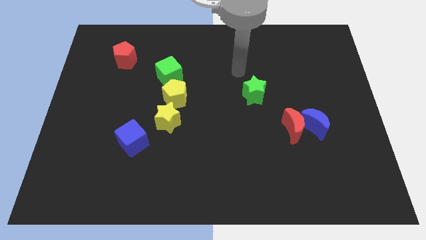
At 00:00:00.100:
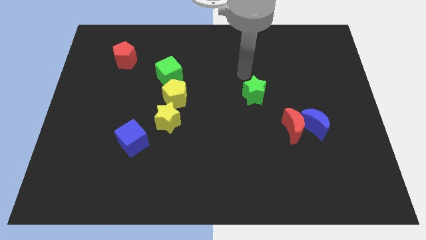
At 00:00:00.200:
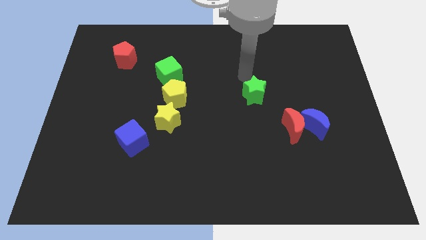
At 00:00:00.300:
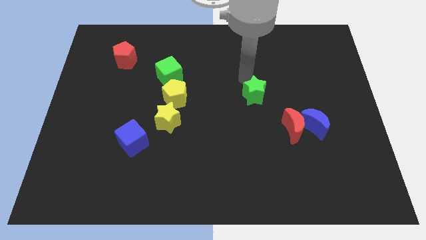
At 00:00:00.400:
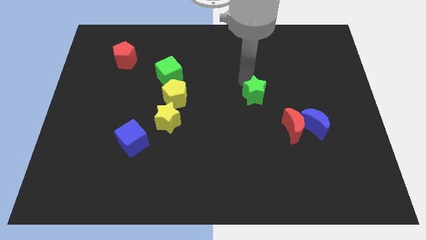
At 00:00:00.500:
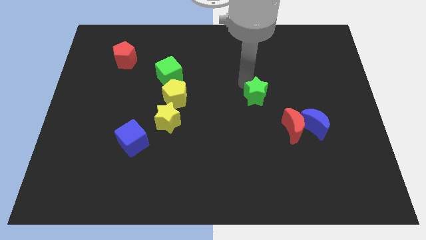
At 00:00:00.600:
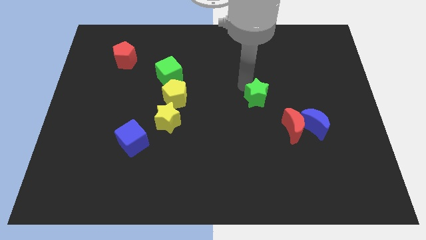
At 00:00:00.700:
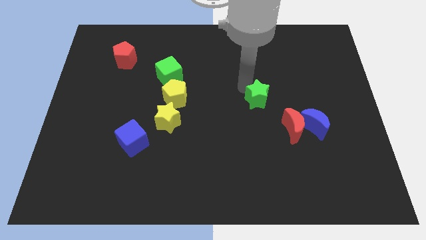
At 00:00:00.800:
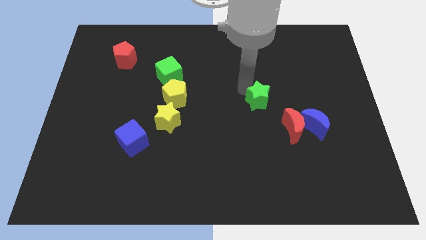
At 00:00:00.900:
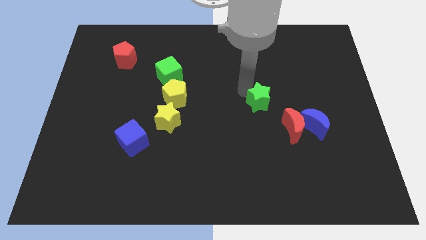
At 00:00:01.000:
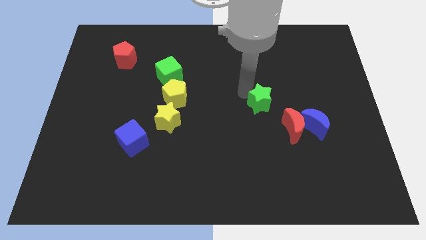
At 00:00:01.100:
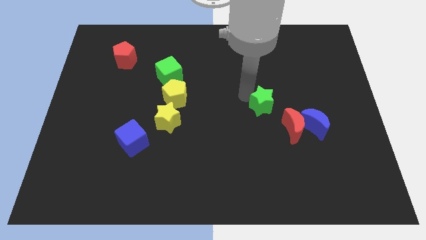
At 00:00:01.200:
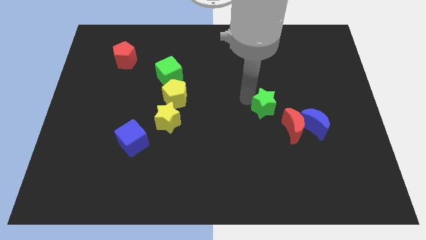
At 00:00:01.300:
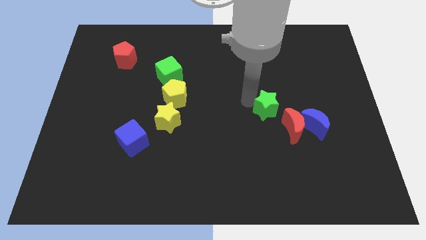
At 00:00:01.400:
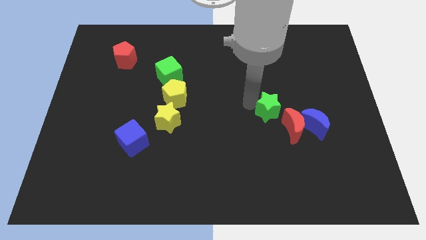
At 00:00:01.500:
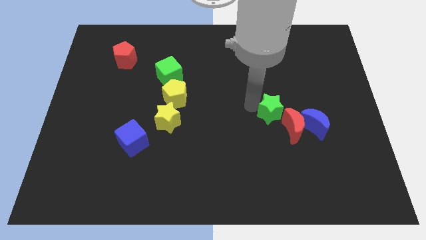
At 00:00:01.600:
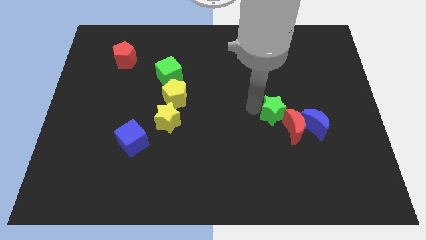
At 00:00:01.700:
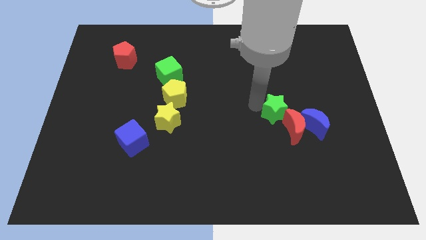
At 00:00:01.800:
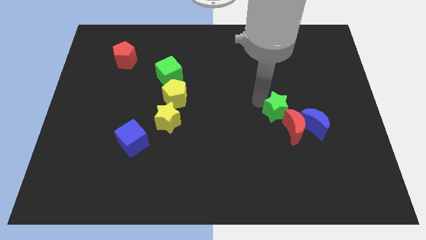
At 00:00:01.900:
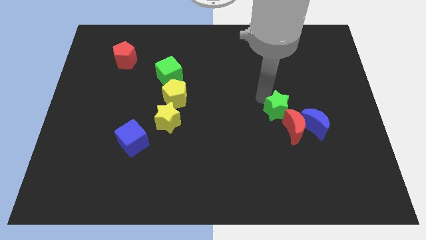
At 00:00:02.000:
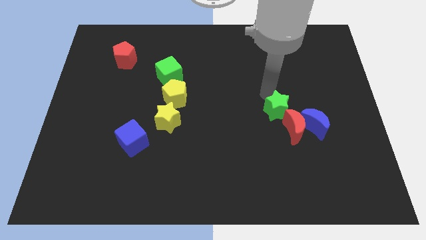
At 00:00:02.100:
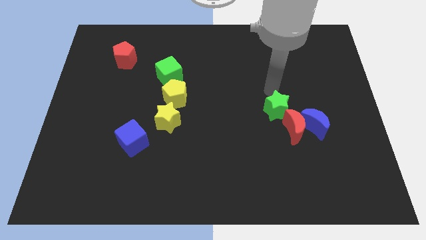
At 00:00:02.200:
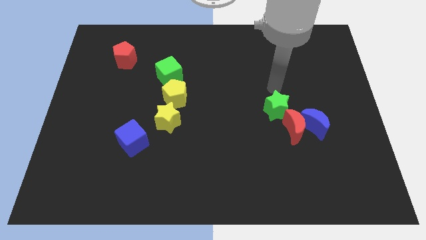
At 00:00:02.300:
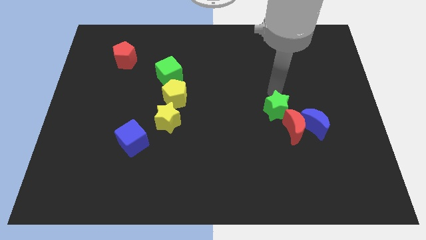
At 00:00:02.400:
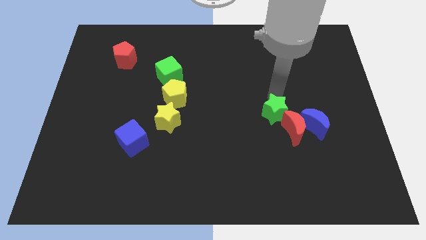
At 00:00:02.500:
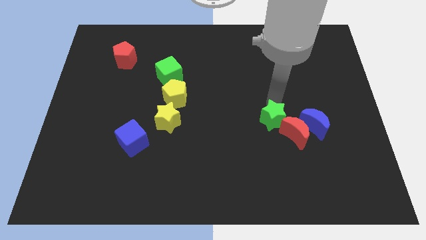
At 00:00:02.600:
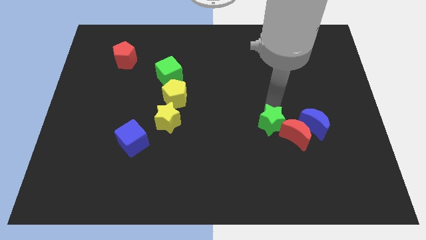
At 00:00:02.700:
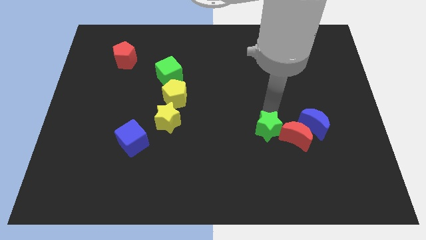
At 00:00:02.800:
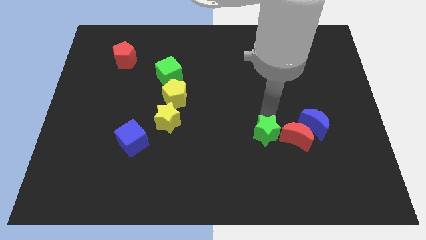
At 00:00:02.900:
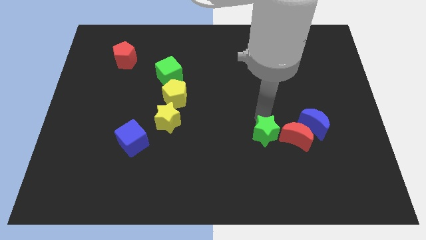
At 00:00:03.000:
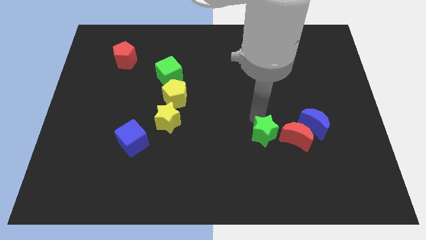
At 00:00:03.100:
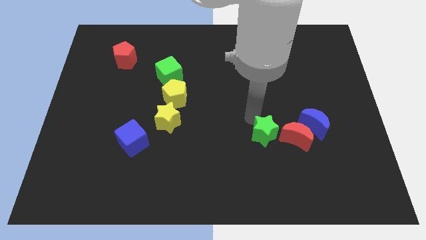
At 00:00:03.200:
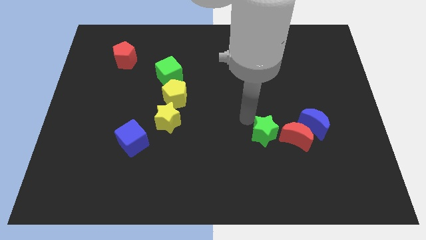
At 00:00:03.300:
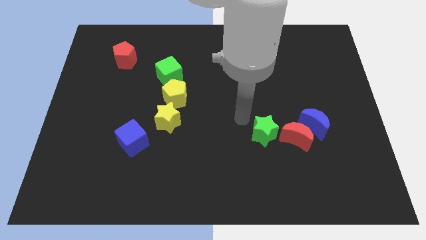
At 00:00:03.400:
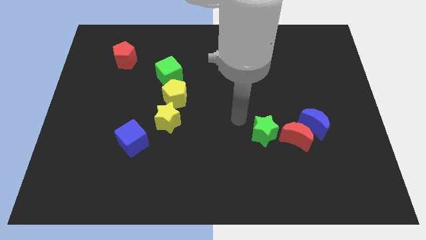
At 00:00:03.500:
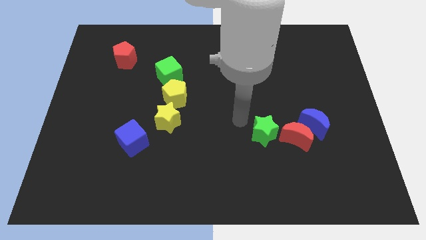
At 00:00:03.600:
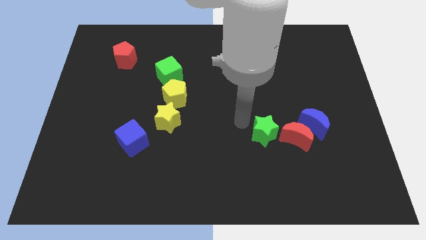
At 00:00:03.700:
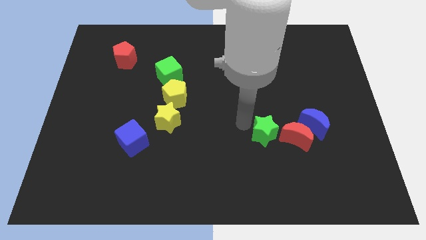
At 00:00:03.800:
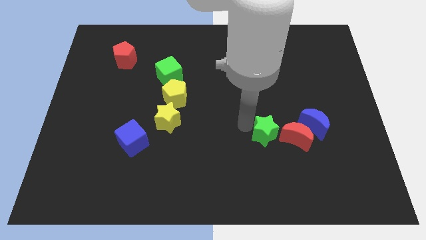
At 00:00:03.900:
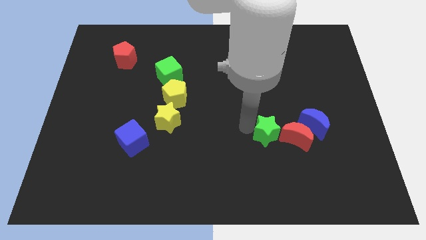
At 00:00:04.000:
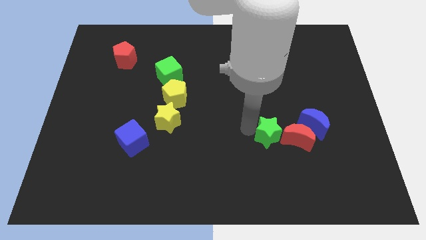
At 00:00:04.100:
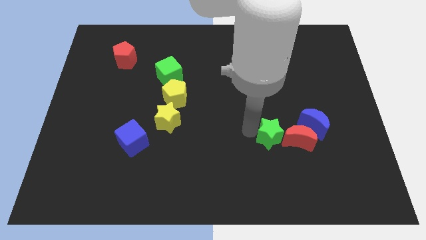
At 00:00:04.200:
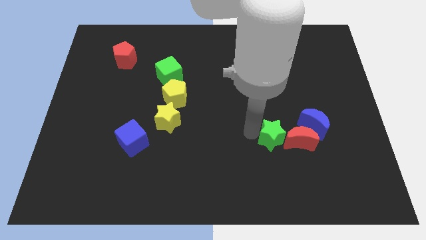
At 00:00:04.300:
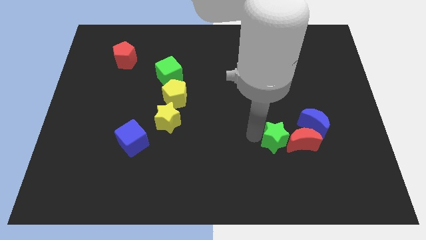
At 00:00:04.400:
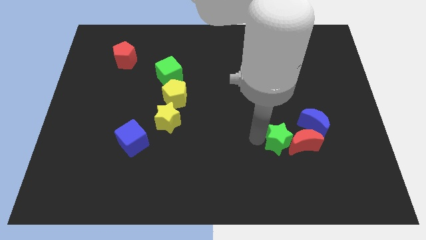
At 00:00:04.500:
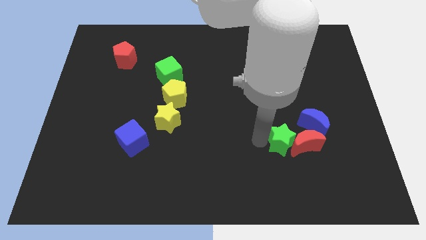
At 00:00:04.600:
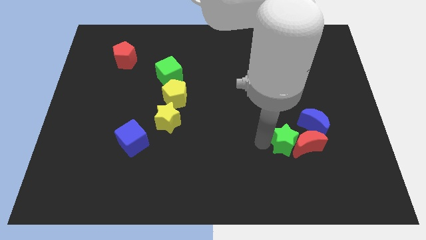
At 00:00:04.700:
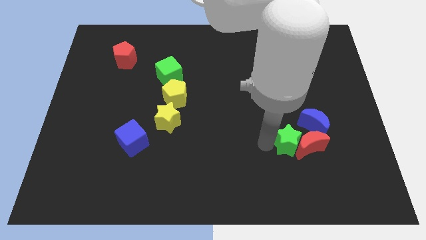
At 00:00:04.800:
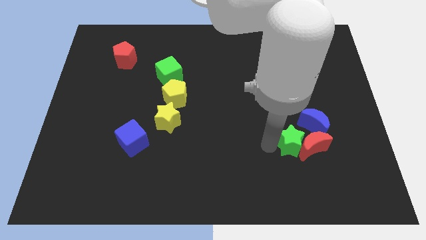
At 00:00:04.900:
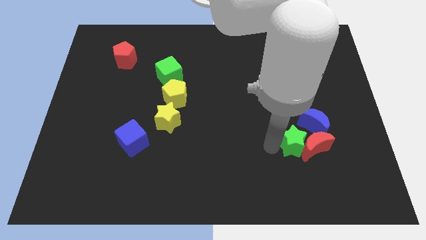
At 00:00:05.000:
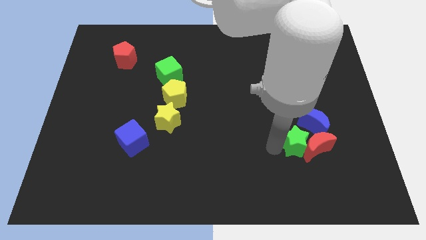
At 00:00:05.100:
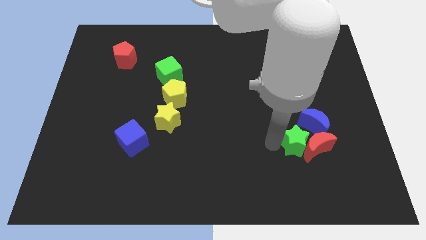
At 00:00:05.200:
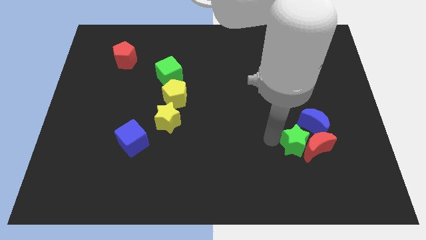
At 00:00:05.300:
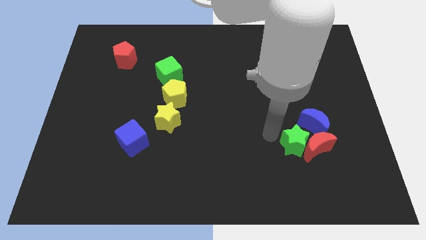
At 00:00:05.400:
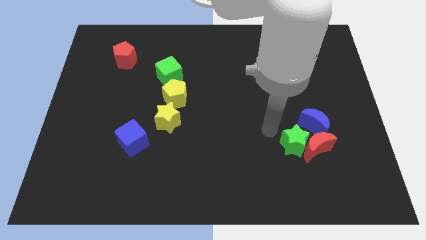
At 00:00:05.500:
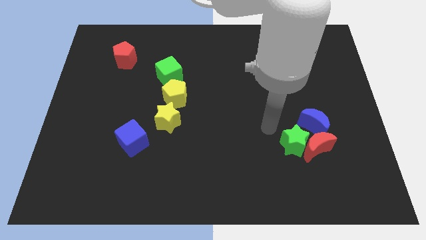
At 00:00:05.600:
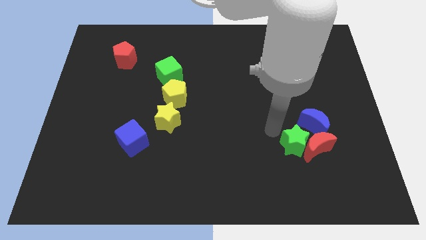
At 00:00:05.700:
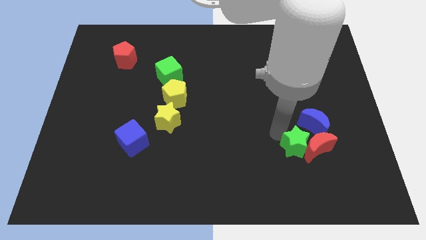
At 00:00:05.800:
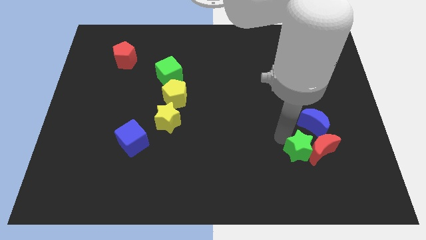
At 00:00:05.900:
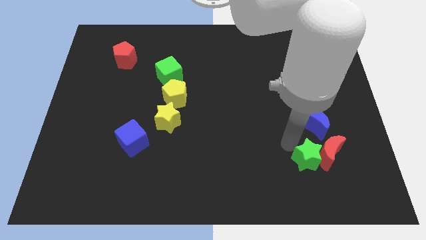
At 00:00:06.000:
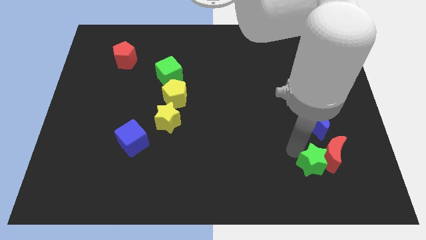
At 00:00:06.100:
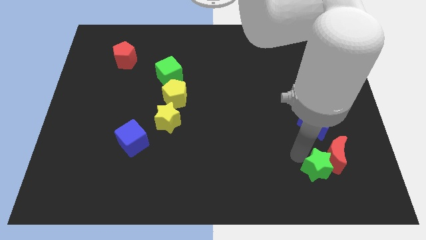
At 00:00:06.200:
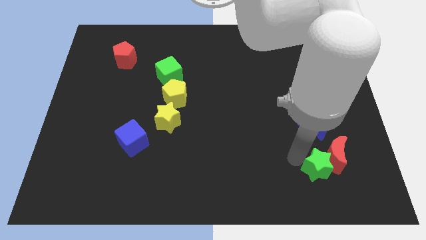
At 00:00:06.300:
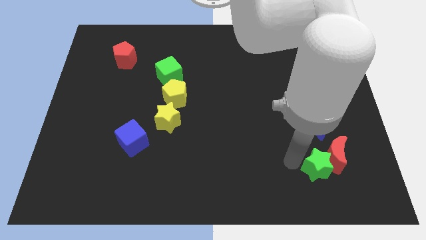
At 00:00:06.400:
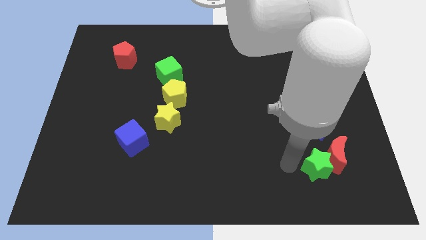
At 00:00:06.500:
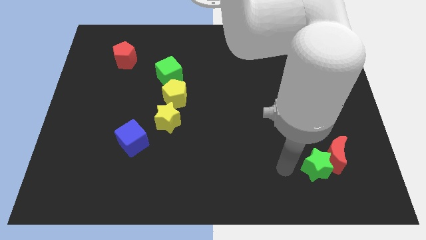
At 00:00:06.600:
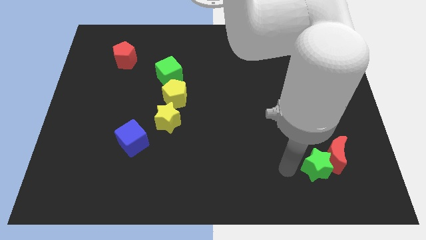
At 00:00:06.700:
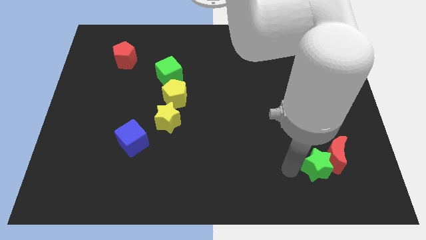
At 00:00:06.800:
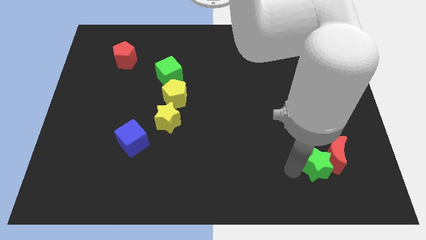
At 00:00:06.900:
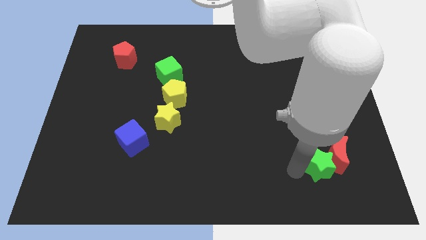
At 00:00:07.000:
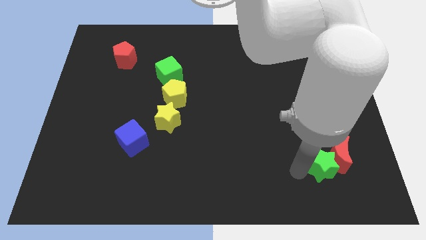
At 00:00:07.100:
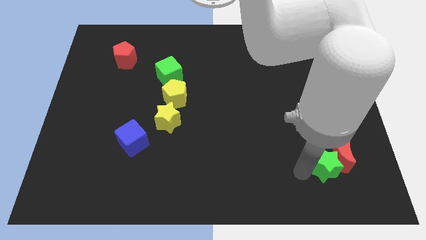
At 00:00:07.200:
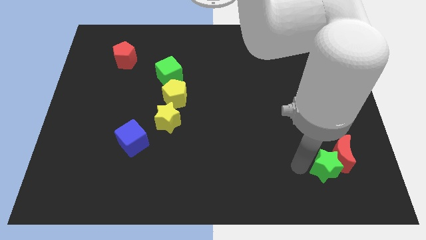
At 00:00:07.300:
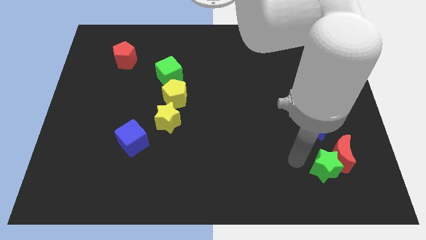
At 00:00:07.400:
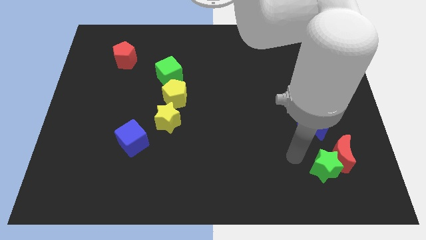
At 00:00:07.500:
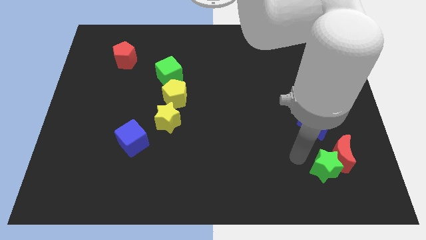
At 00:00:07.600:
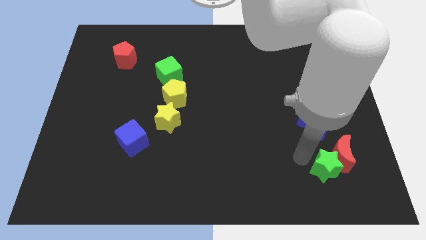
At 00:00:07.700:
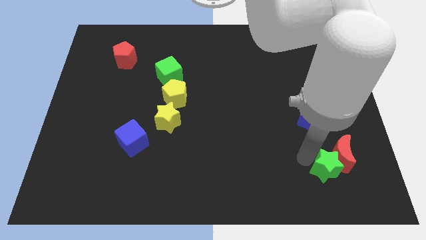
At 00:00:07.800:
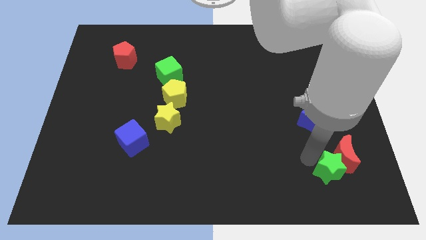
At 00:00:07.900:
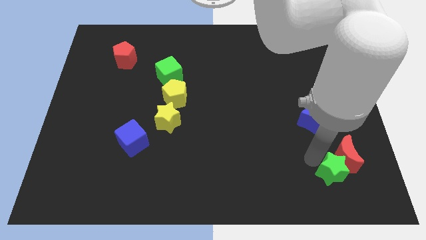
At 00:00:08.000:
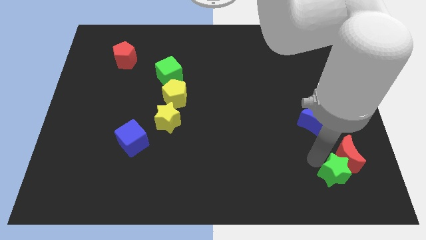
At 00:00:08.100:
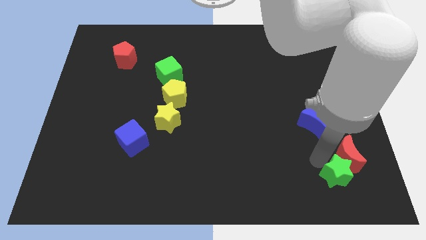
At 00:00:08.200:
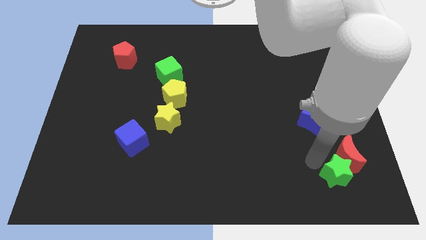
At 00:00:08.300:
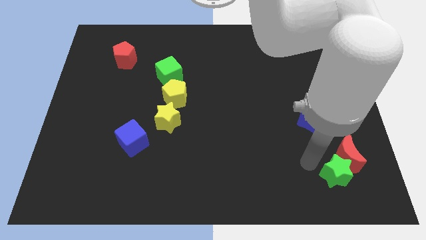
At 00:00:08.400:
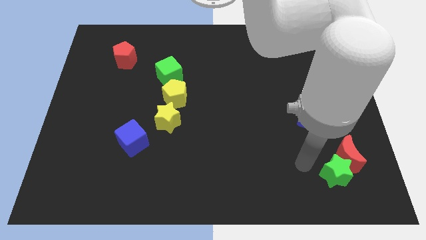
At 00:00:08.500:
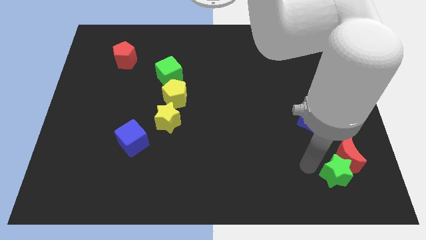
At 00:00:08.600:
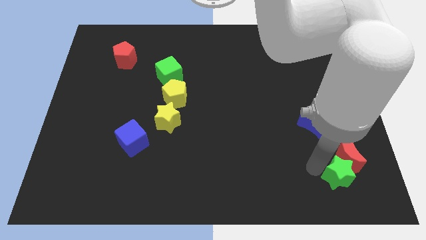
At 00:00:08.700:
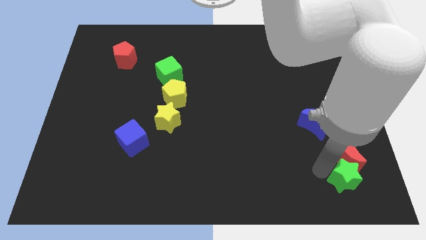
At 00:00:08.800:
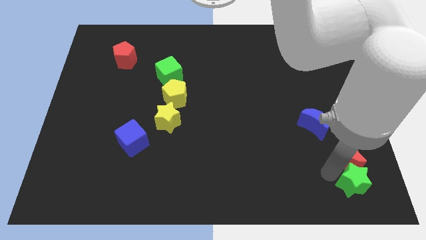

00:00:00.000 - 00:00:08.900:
move the green star to the bottom right corner
